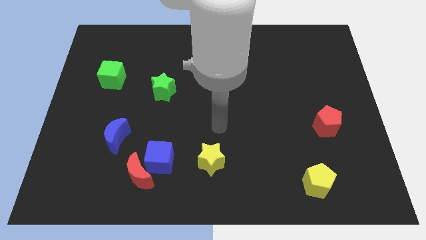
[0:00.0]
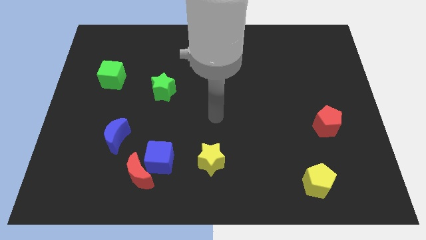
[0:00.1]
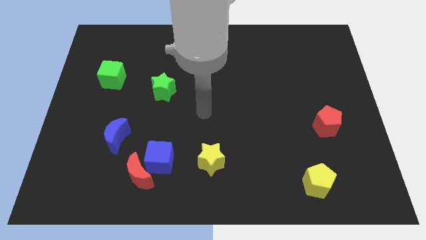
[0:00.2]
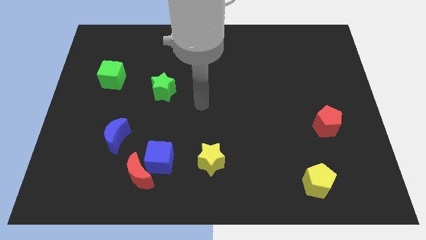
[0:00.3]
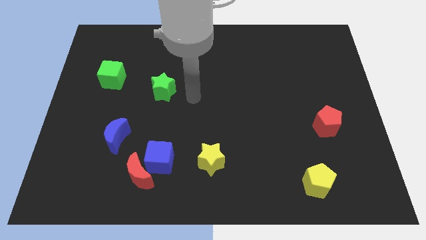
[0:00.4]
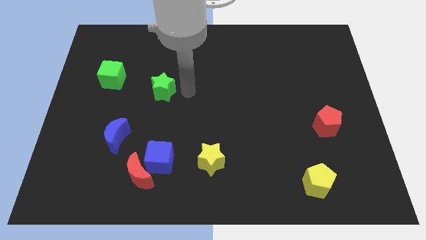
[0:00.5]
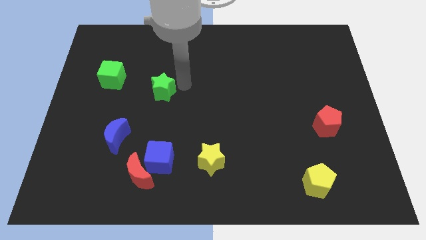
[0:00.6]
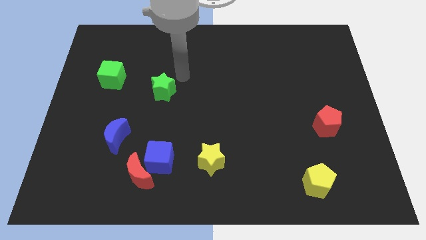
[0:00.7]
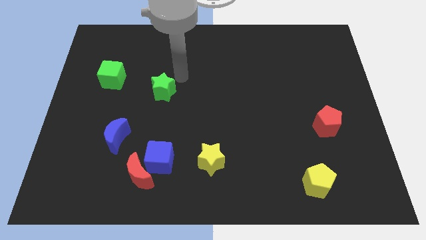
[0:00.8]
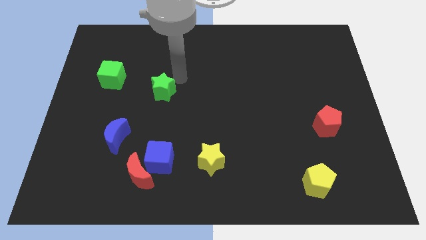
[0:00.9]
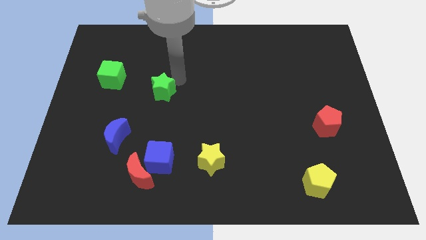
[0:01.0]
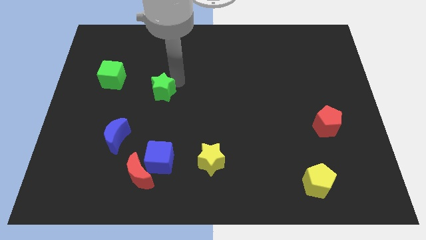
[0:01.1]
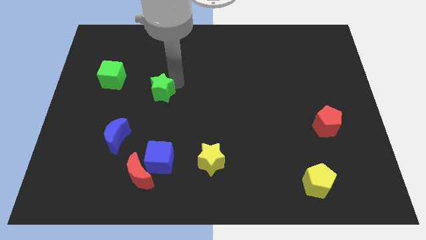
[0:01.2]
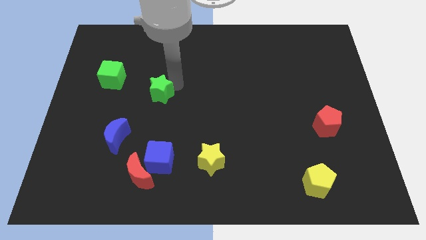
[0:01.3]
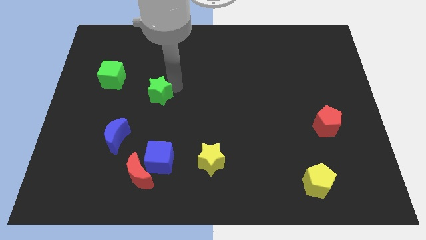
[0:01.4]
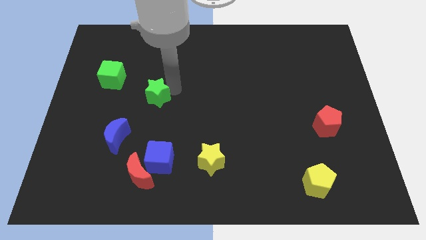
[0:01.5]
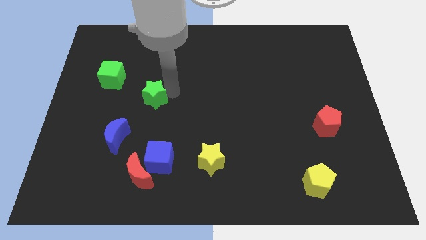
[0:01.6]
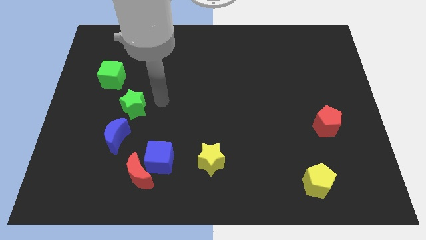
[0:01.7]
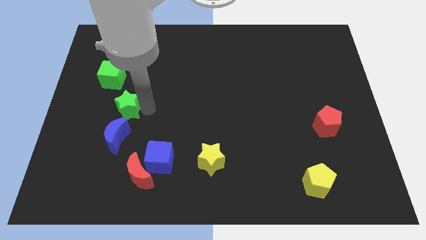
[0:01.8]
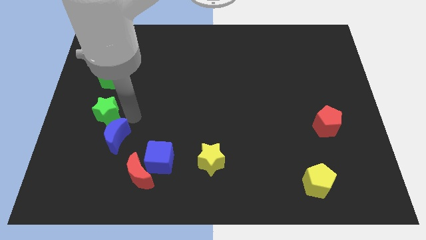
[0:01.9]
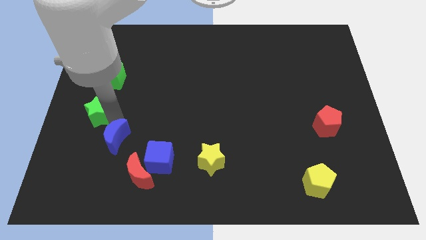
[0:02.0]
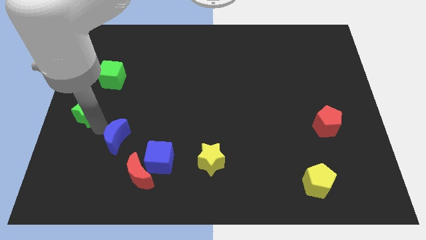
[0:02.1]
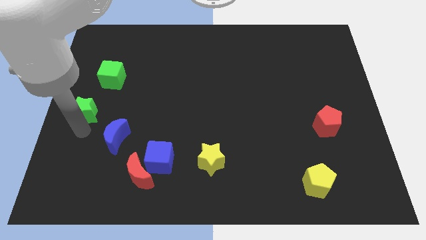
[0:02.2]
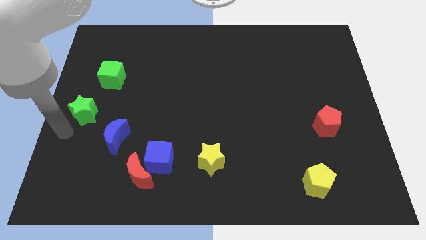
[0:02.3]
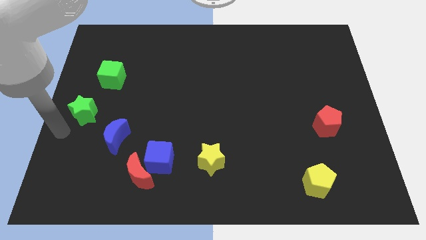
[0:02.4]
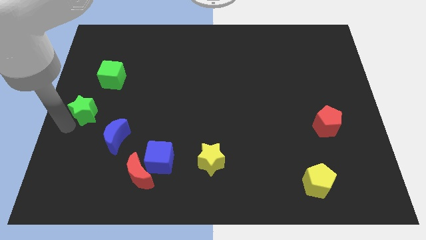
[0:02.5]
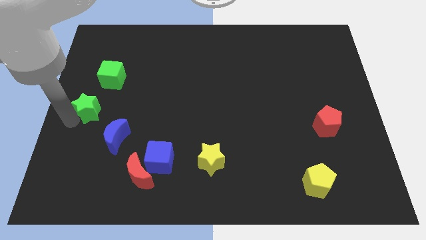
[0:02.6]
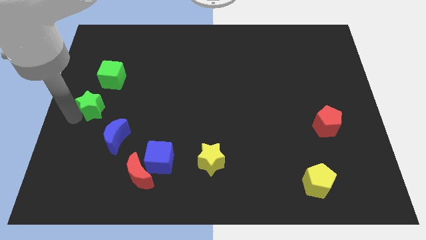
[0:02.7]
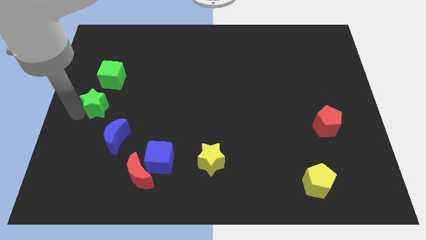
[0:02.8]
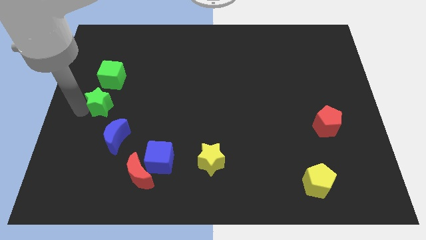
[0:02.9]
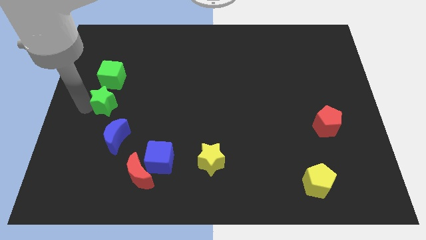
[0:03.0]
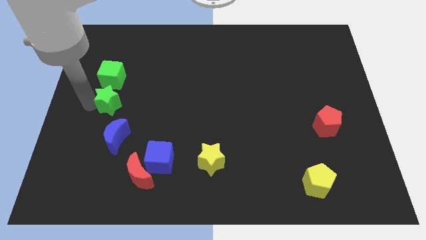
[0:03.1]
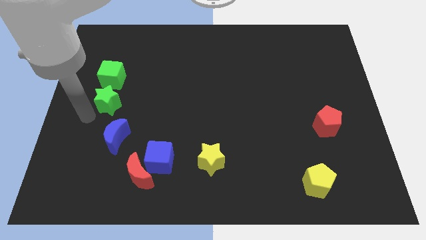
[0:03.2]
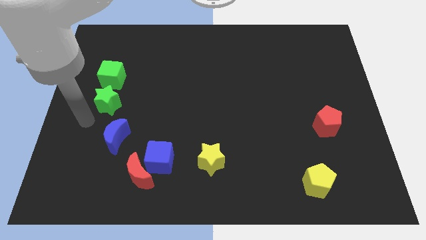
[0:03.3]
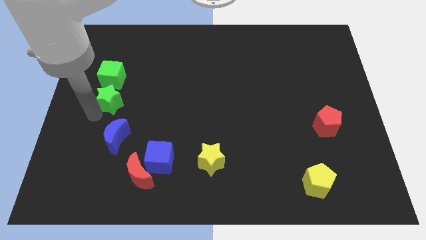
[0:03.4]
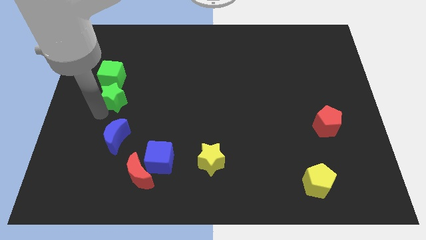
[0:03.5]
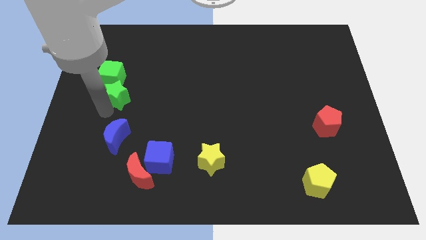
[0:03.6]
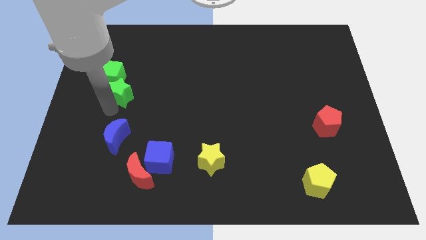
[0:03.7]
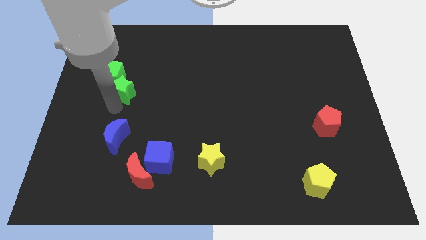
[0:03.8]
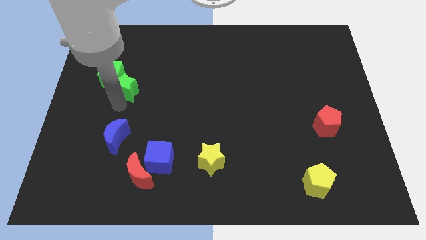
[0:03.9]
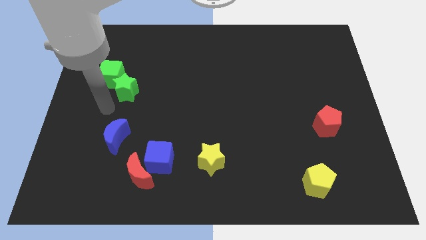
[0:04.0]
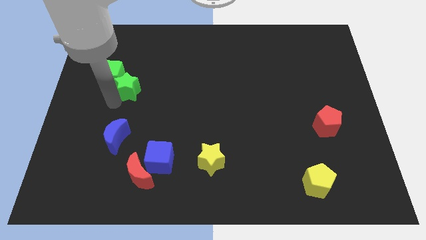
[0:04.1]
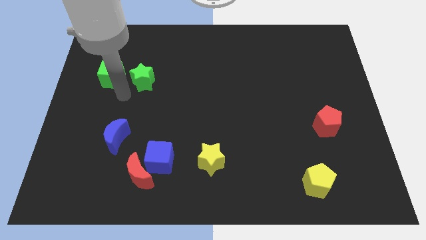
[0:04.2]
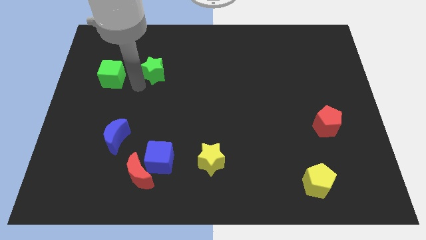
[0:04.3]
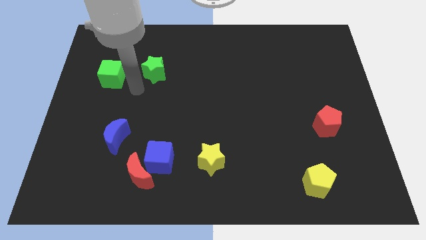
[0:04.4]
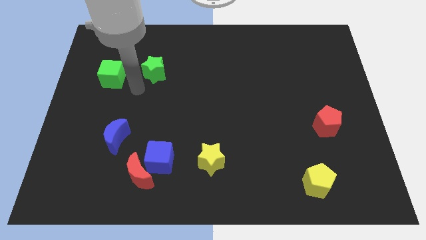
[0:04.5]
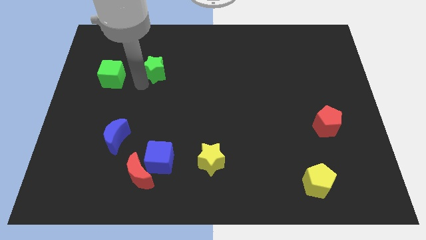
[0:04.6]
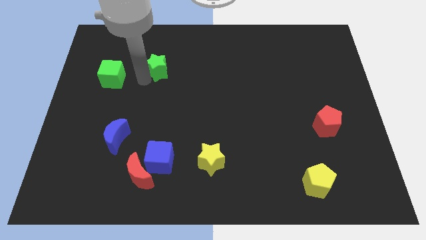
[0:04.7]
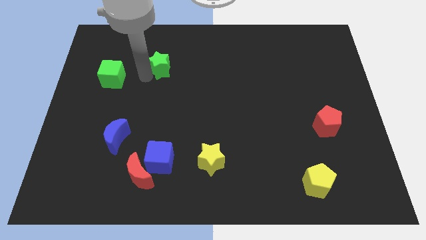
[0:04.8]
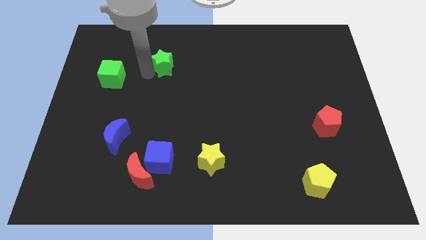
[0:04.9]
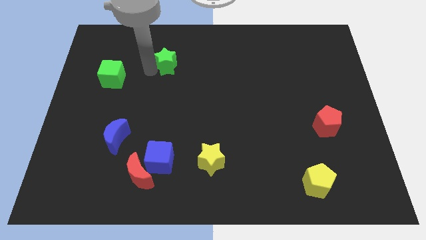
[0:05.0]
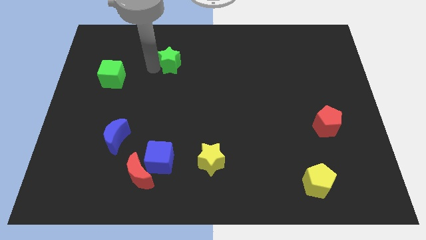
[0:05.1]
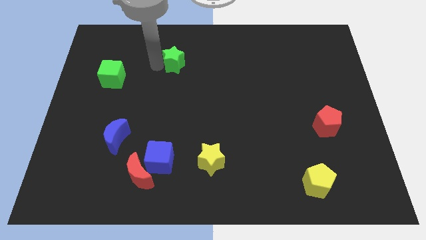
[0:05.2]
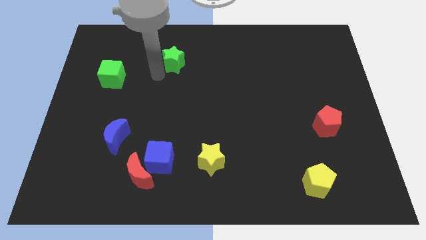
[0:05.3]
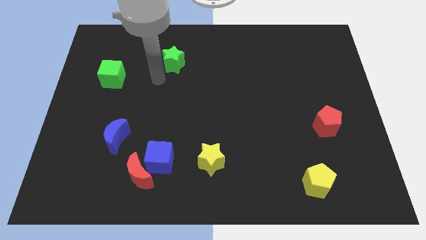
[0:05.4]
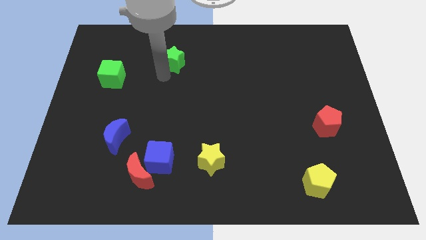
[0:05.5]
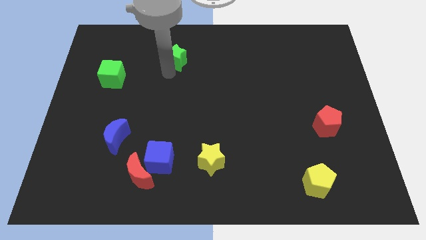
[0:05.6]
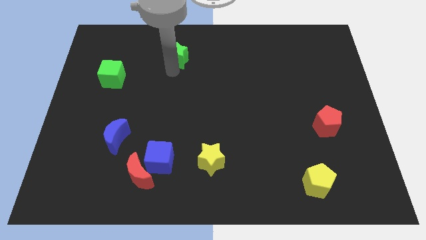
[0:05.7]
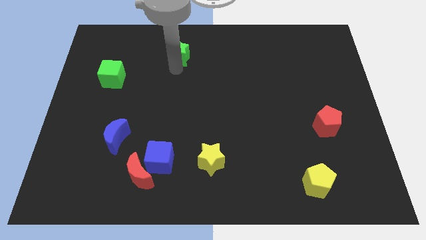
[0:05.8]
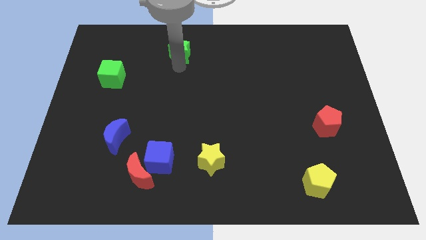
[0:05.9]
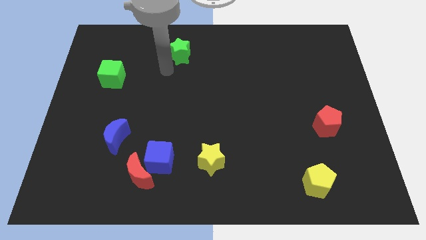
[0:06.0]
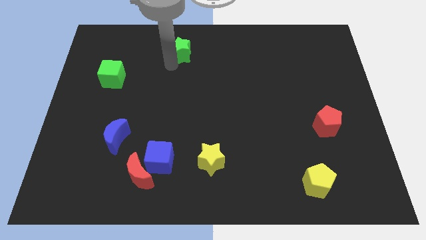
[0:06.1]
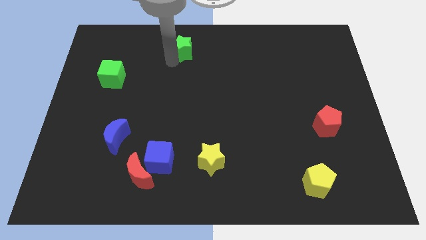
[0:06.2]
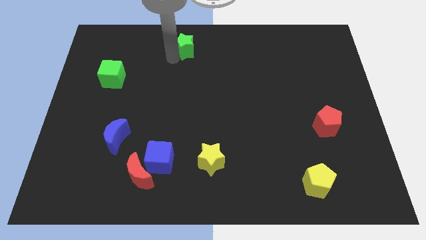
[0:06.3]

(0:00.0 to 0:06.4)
move the green star to the towards your base

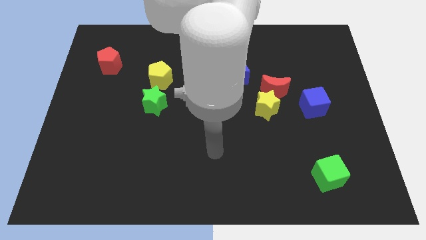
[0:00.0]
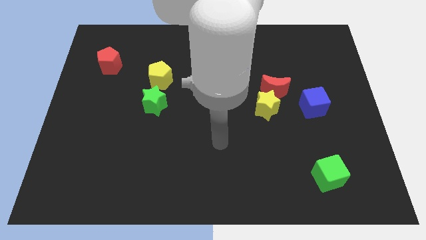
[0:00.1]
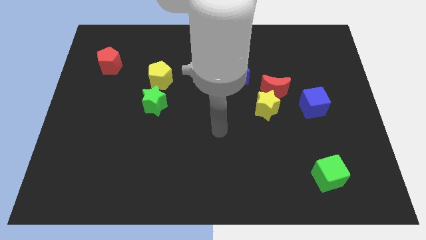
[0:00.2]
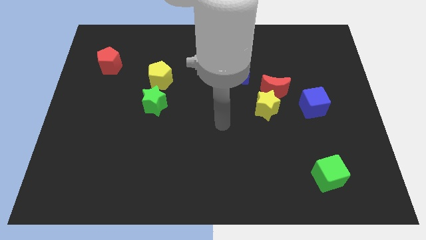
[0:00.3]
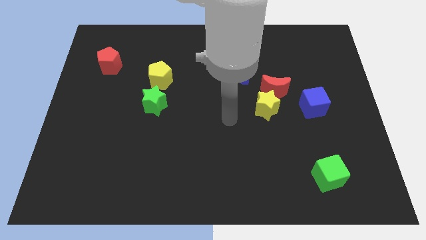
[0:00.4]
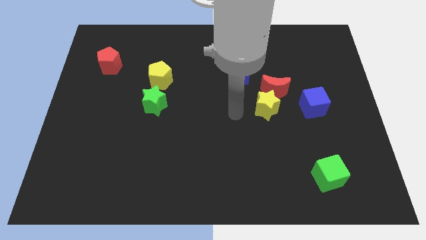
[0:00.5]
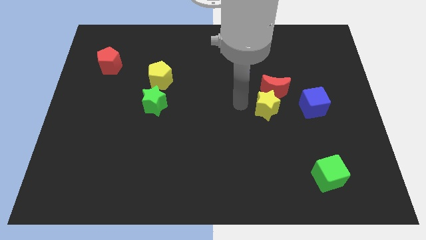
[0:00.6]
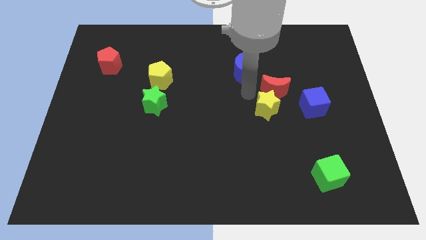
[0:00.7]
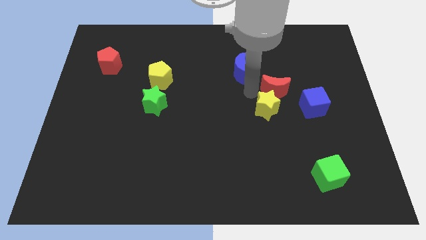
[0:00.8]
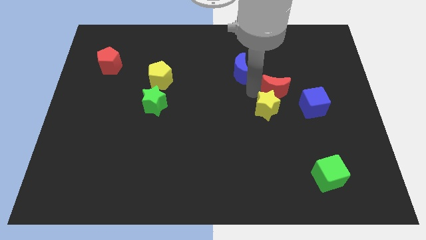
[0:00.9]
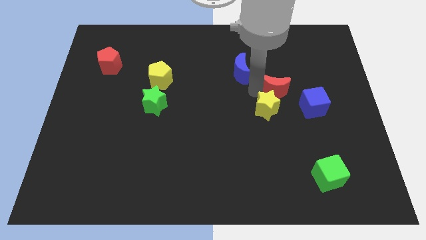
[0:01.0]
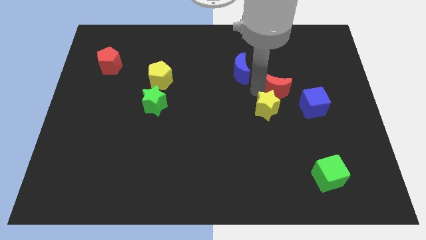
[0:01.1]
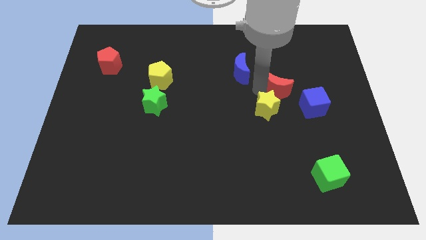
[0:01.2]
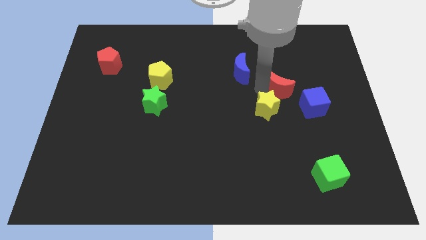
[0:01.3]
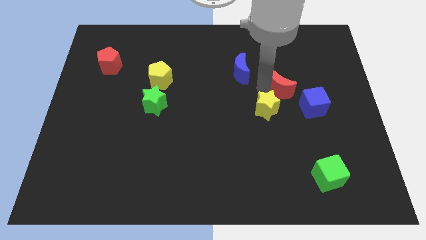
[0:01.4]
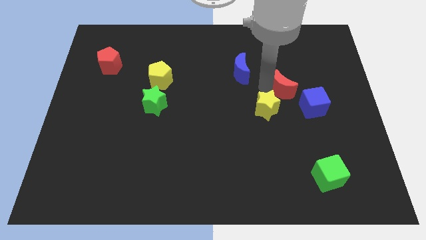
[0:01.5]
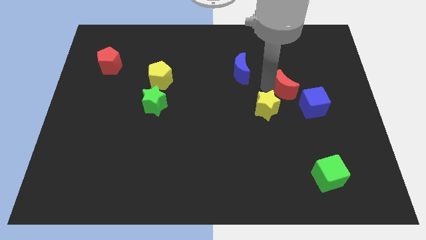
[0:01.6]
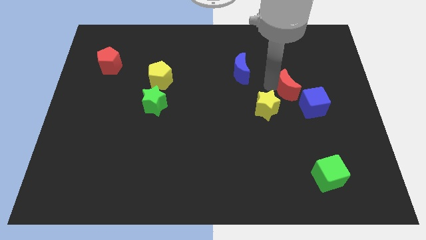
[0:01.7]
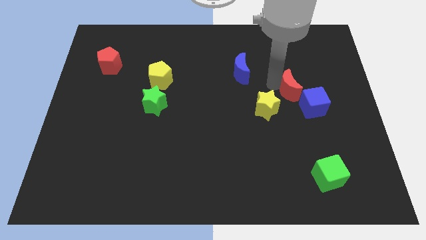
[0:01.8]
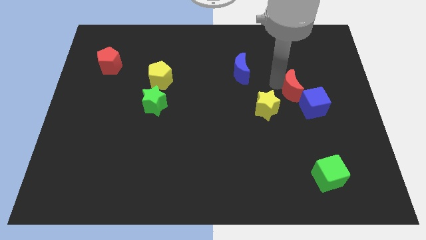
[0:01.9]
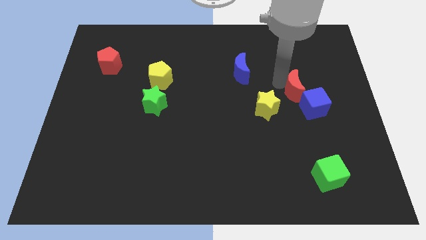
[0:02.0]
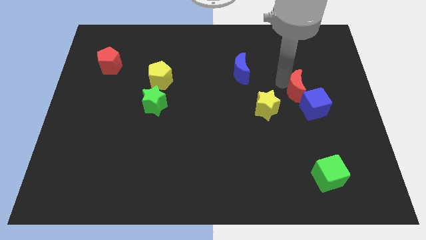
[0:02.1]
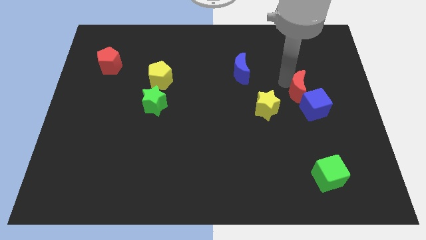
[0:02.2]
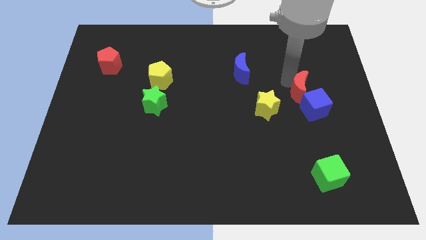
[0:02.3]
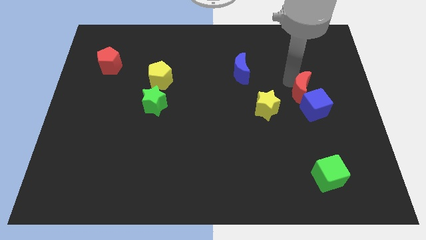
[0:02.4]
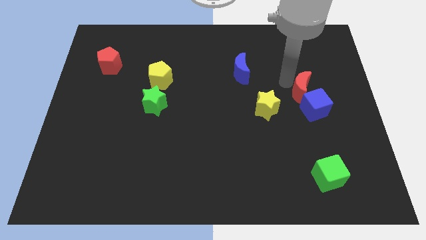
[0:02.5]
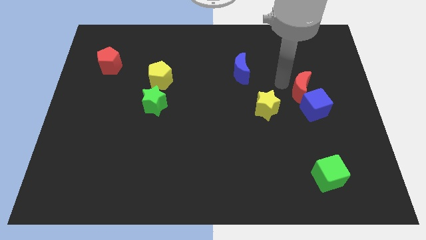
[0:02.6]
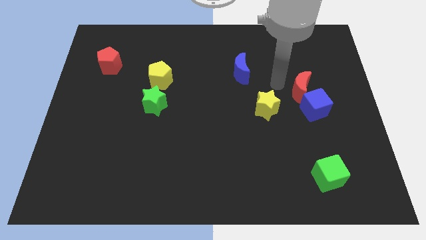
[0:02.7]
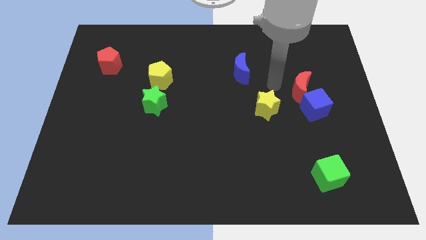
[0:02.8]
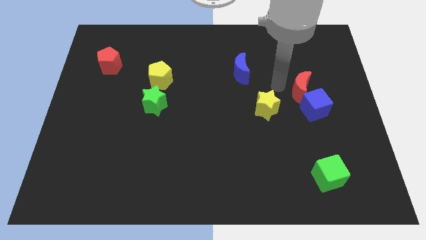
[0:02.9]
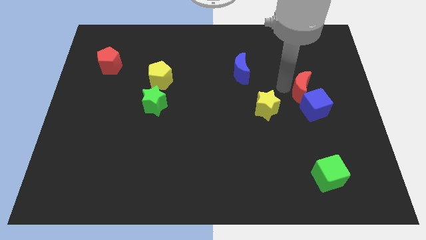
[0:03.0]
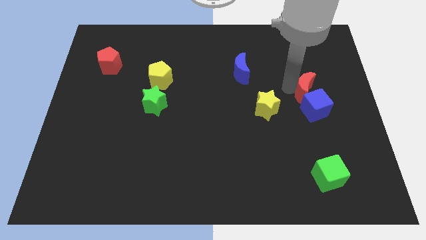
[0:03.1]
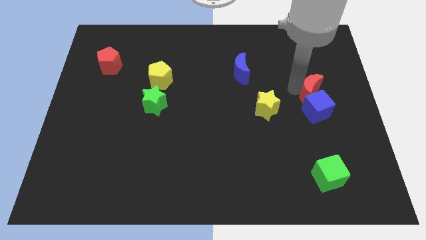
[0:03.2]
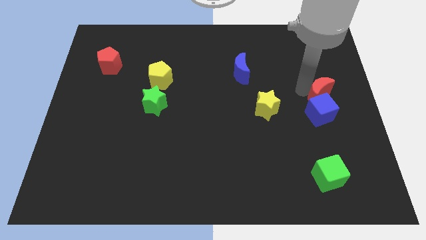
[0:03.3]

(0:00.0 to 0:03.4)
push the red moon to the right side
